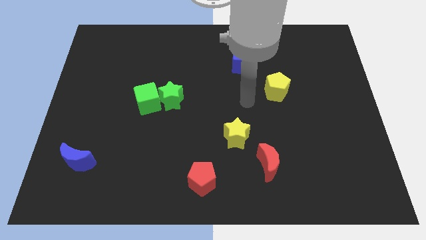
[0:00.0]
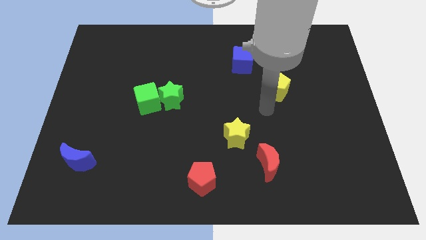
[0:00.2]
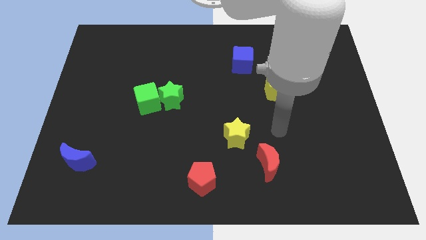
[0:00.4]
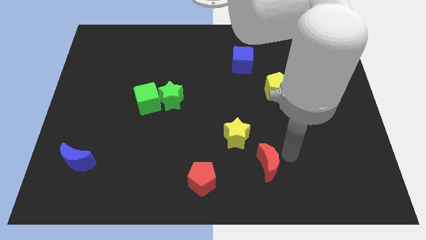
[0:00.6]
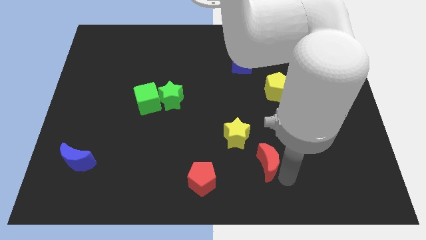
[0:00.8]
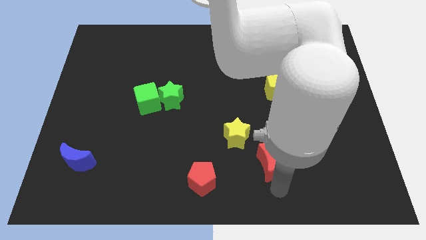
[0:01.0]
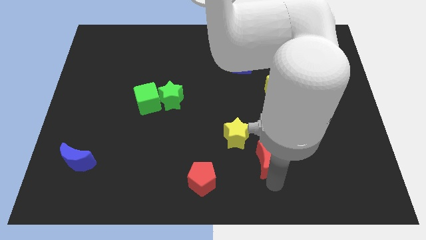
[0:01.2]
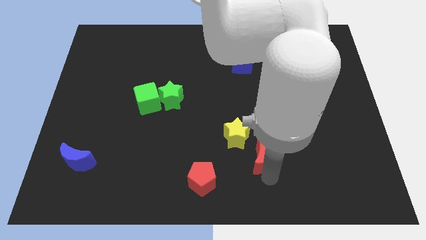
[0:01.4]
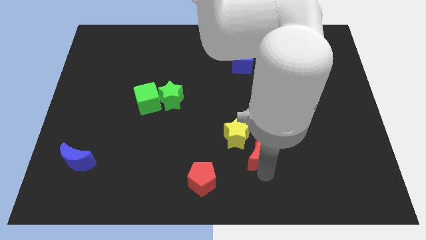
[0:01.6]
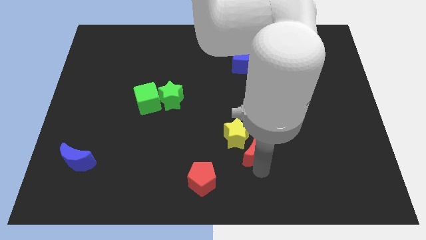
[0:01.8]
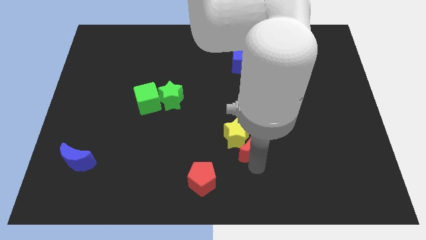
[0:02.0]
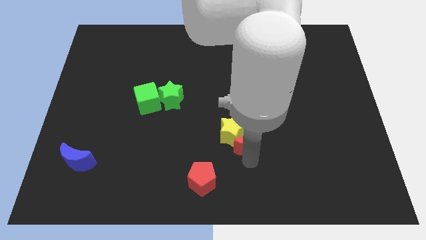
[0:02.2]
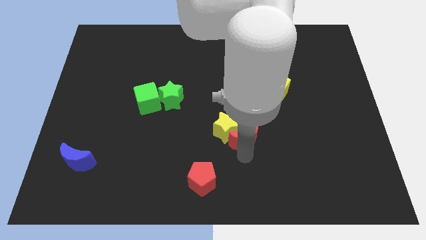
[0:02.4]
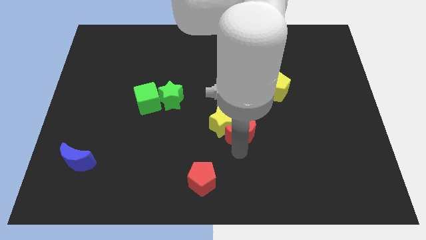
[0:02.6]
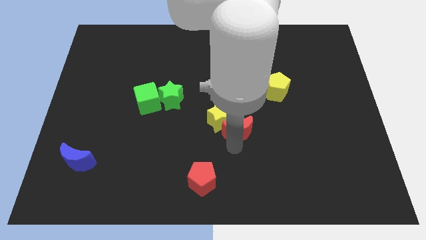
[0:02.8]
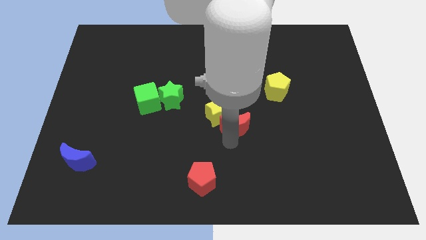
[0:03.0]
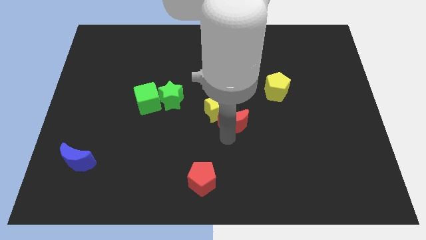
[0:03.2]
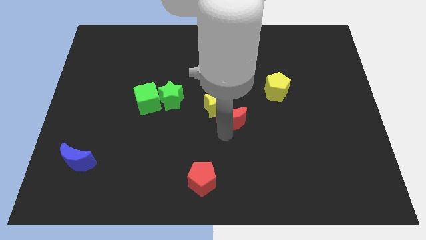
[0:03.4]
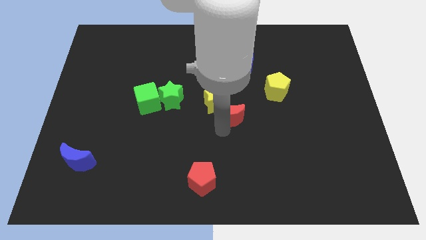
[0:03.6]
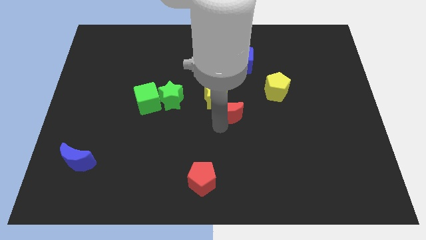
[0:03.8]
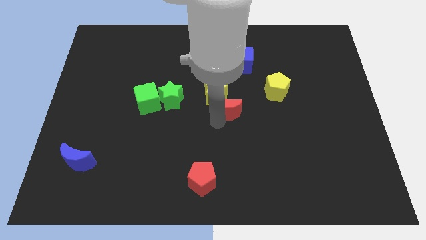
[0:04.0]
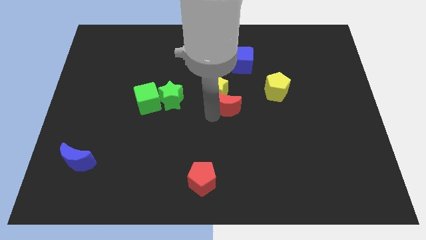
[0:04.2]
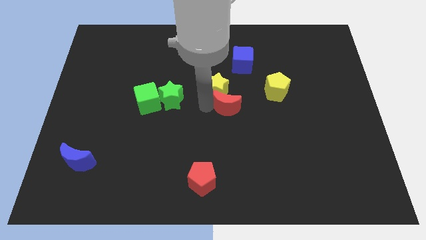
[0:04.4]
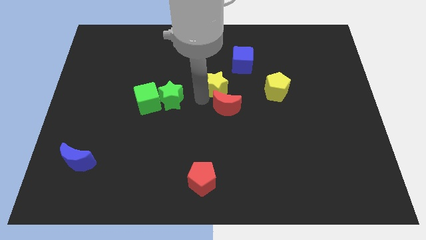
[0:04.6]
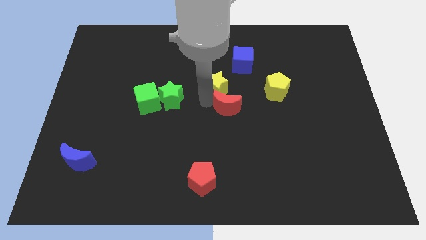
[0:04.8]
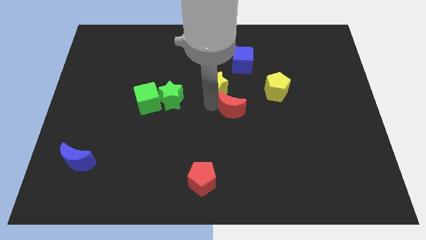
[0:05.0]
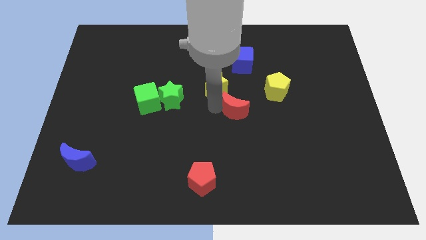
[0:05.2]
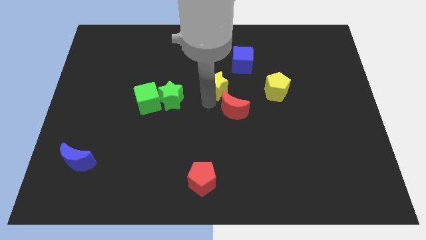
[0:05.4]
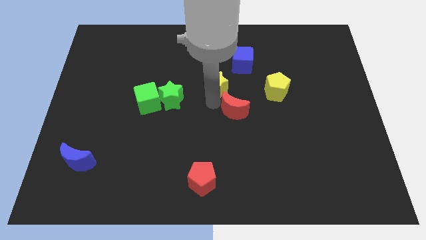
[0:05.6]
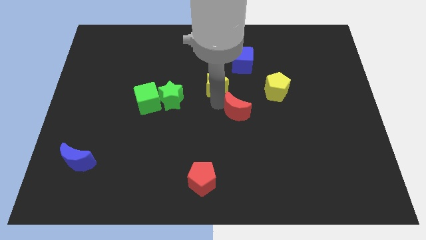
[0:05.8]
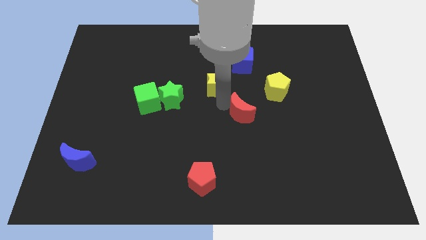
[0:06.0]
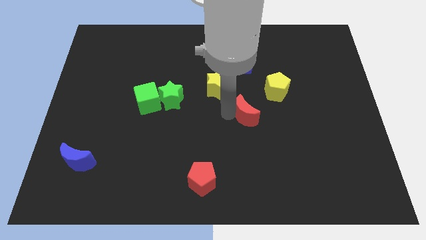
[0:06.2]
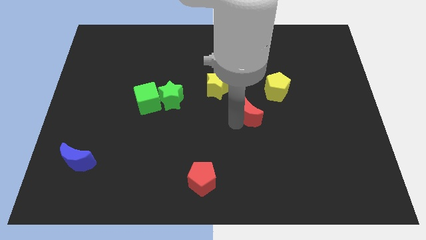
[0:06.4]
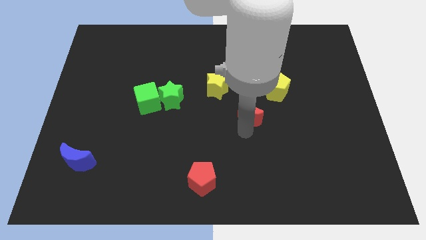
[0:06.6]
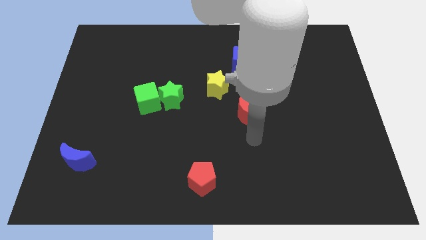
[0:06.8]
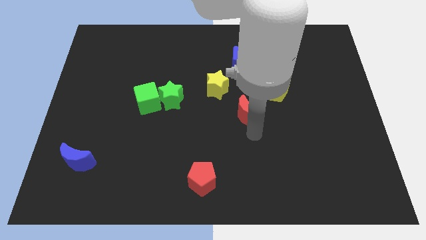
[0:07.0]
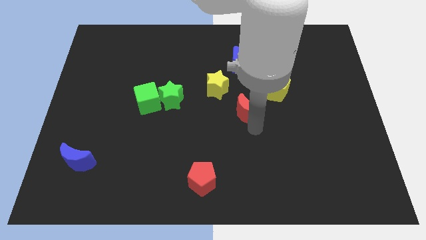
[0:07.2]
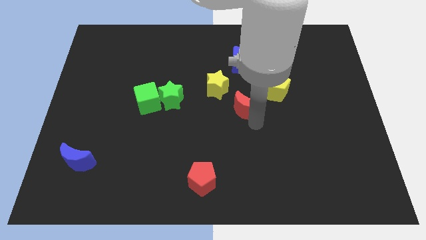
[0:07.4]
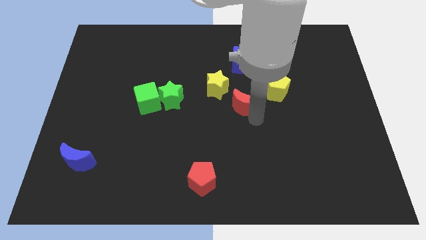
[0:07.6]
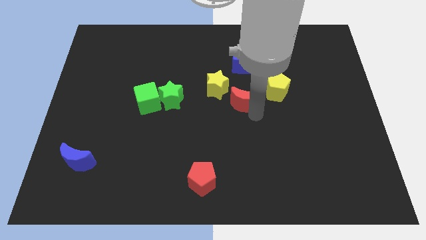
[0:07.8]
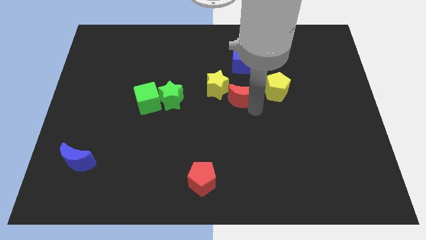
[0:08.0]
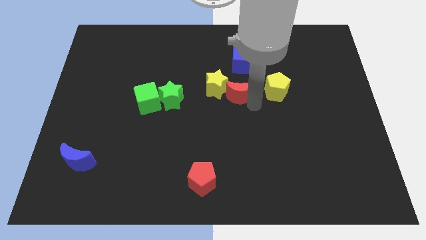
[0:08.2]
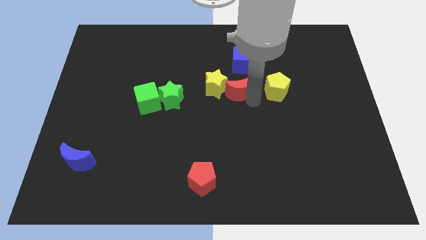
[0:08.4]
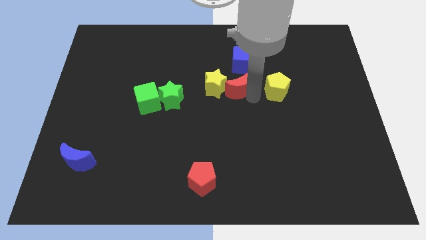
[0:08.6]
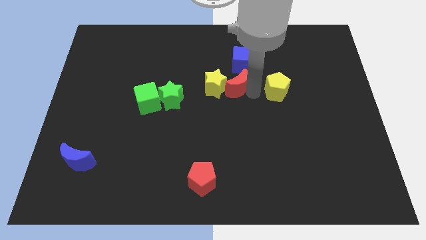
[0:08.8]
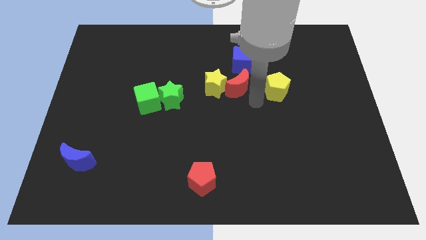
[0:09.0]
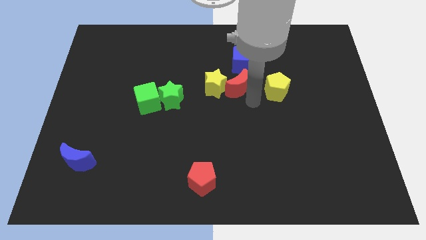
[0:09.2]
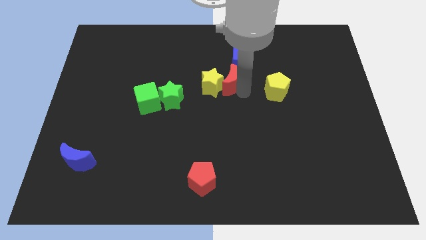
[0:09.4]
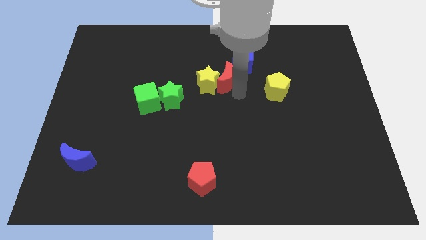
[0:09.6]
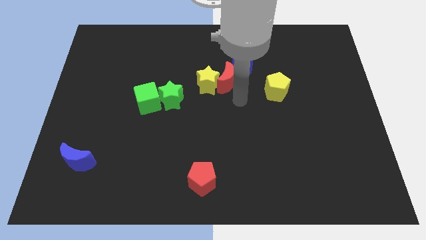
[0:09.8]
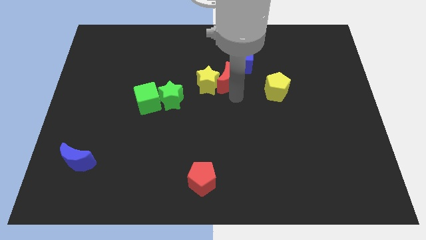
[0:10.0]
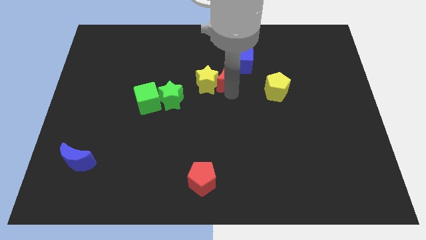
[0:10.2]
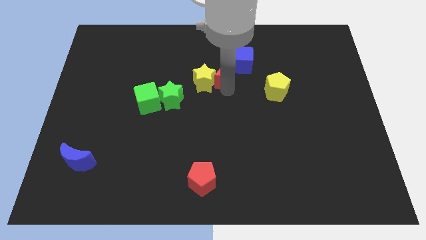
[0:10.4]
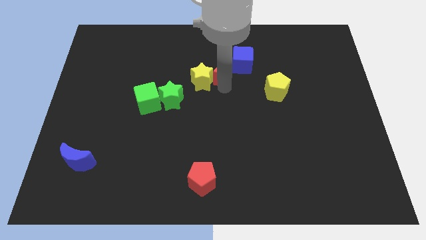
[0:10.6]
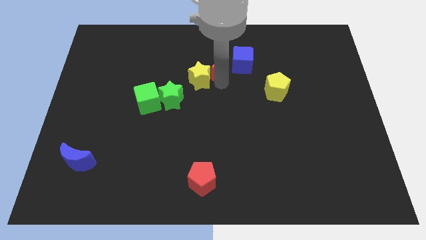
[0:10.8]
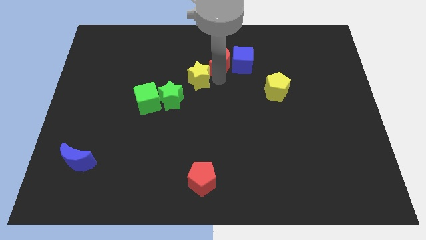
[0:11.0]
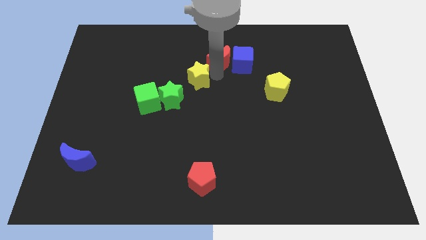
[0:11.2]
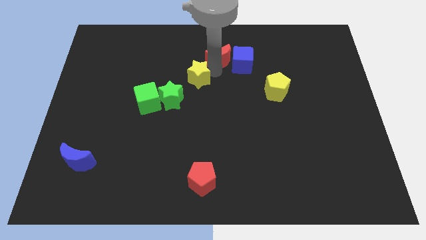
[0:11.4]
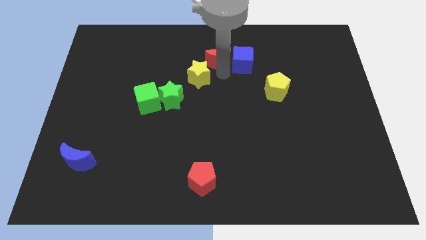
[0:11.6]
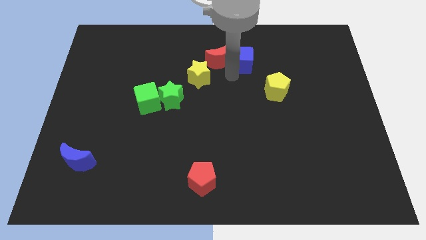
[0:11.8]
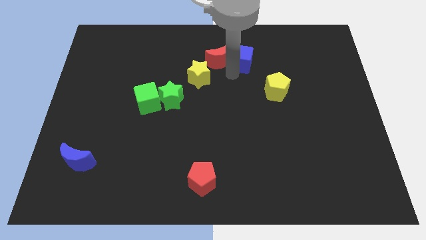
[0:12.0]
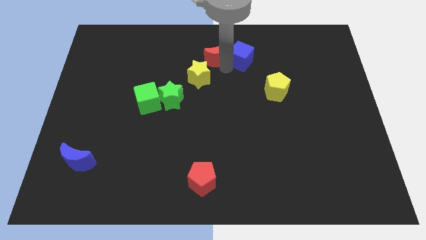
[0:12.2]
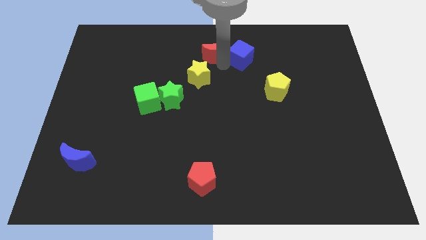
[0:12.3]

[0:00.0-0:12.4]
push the red moon to the top side
